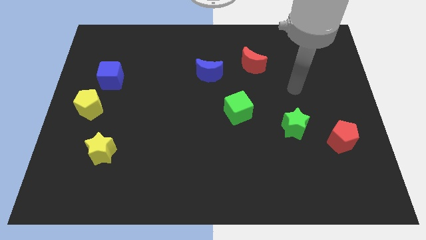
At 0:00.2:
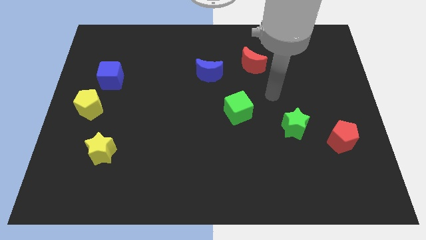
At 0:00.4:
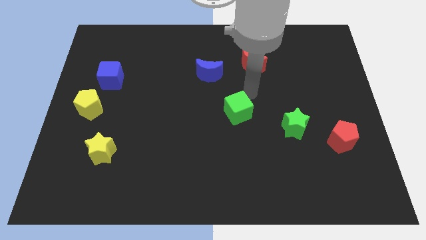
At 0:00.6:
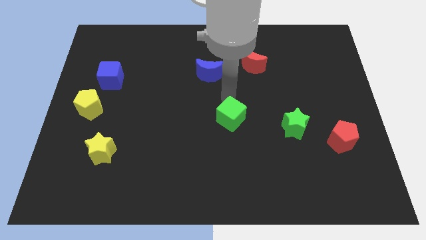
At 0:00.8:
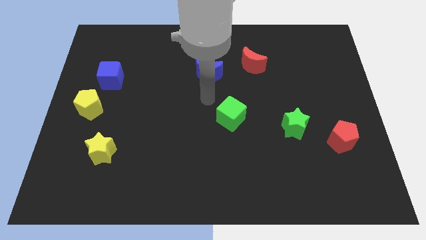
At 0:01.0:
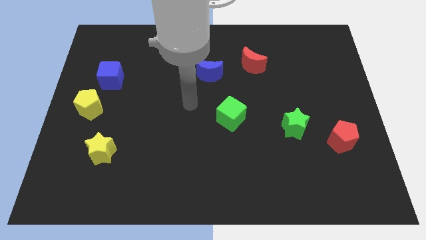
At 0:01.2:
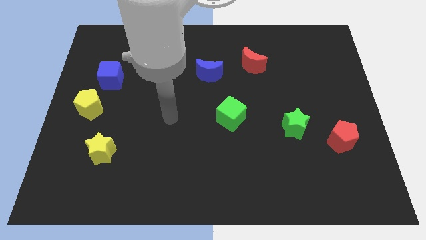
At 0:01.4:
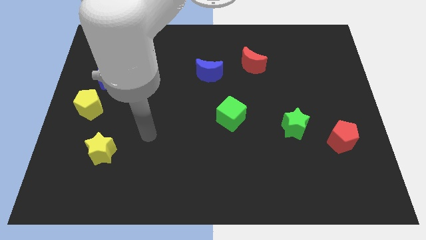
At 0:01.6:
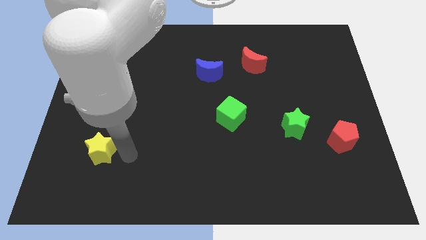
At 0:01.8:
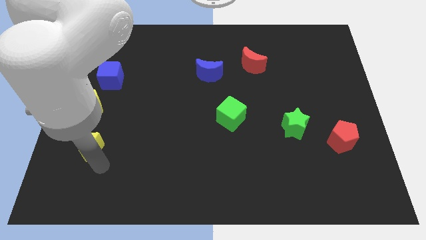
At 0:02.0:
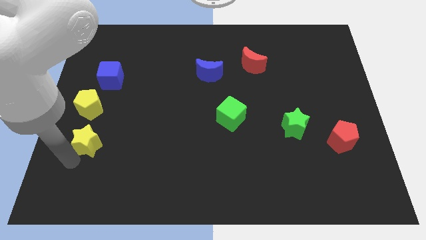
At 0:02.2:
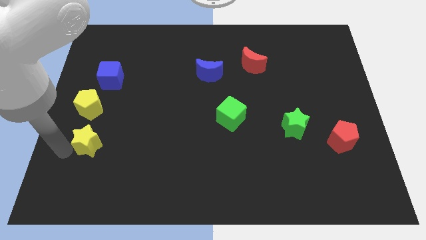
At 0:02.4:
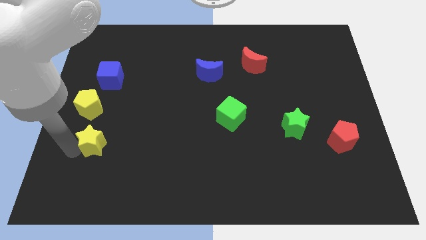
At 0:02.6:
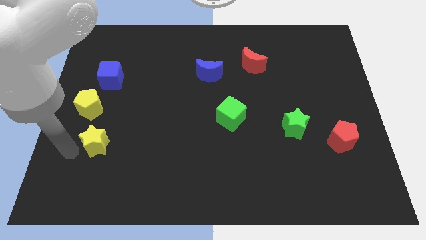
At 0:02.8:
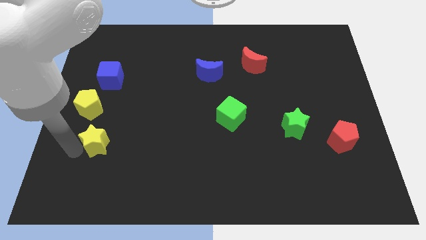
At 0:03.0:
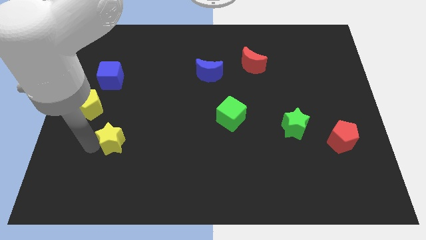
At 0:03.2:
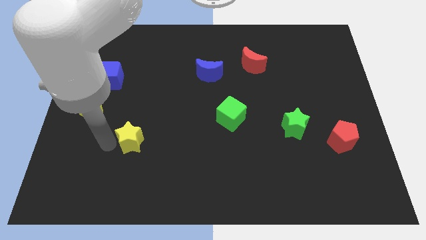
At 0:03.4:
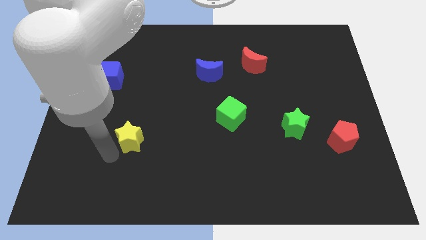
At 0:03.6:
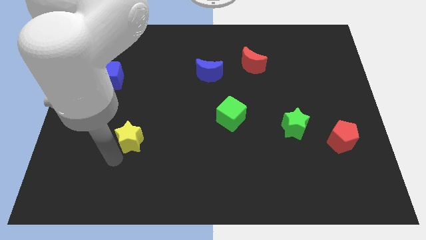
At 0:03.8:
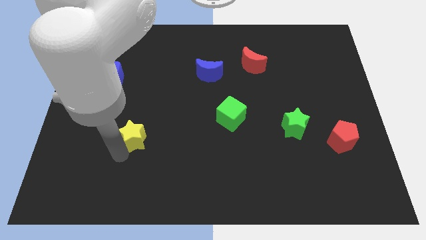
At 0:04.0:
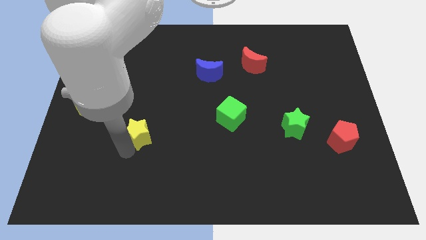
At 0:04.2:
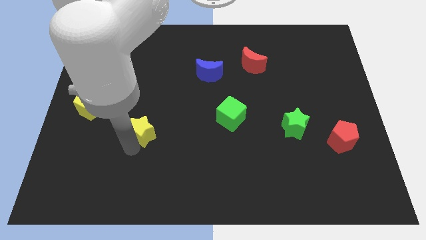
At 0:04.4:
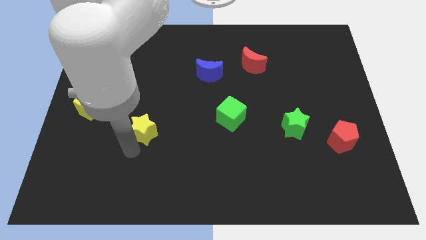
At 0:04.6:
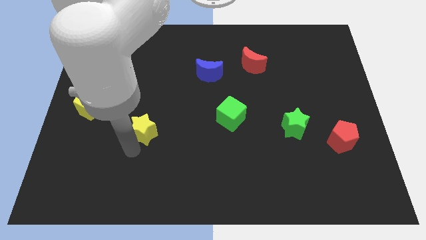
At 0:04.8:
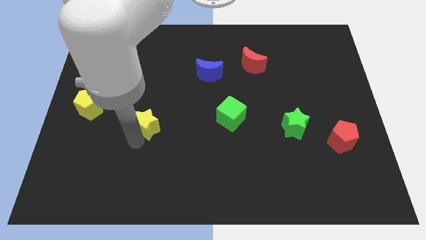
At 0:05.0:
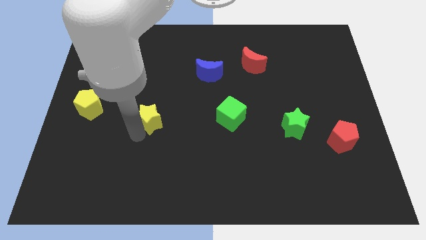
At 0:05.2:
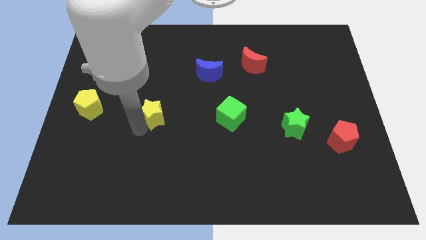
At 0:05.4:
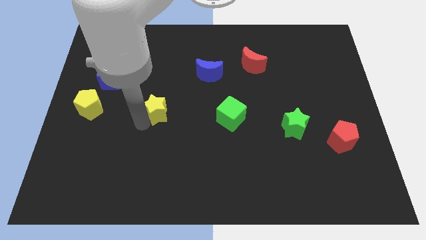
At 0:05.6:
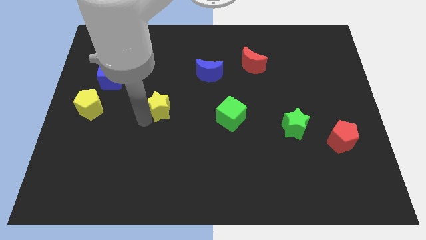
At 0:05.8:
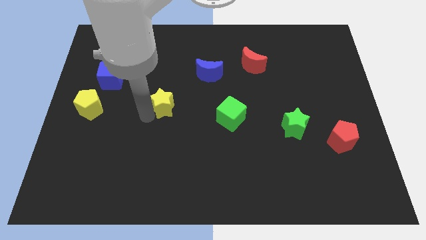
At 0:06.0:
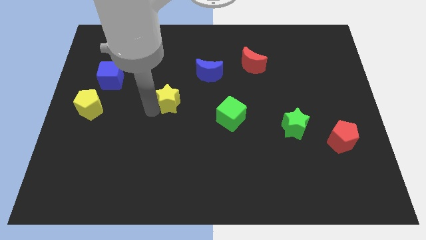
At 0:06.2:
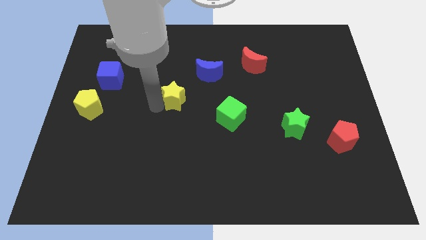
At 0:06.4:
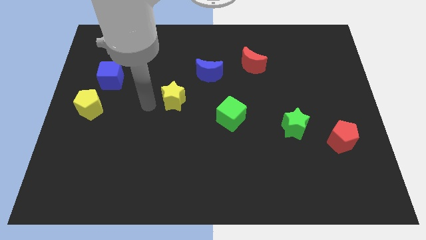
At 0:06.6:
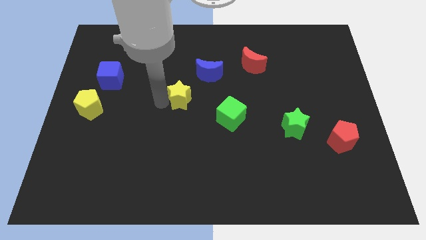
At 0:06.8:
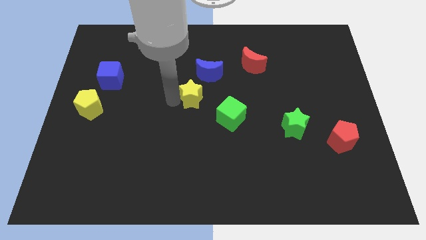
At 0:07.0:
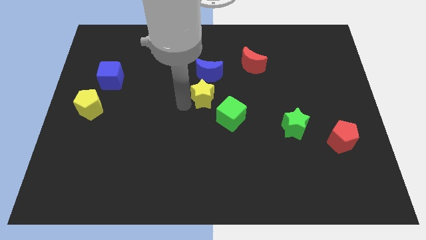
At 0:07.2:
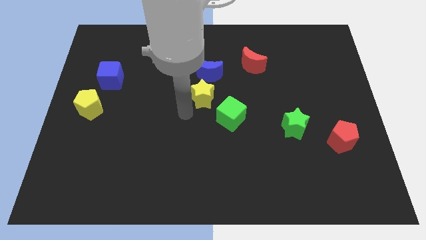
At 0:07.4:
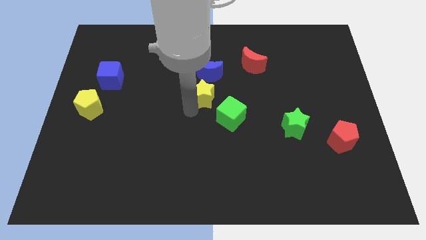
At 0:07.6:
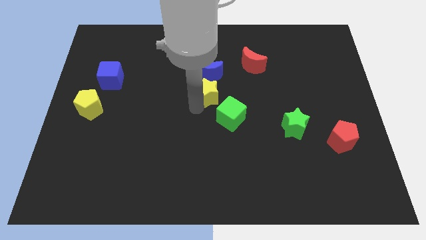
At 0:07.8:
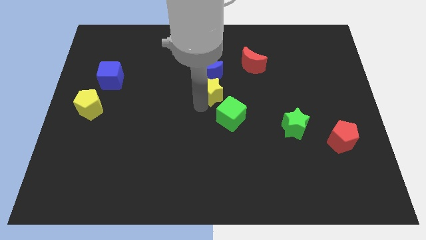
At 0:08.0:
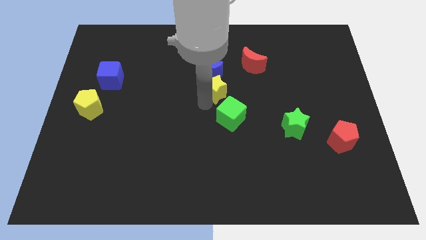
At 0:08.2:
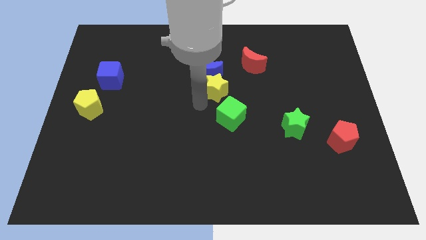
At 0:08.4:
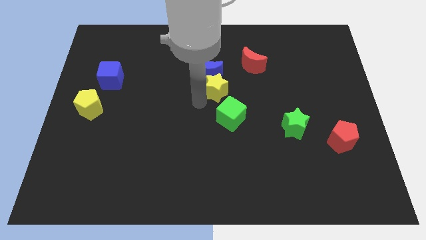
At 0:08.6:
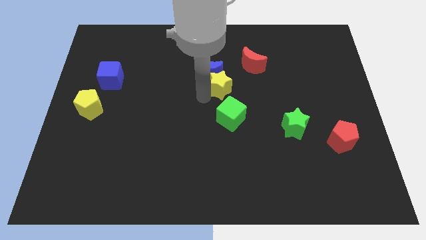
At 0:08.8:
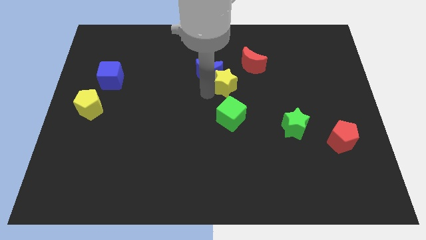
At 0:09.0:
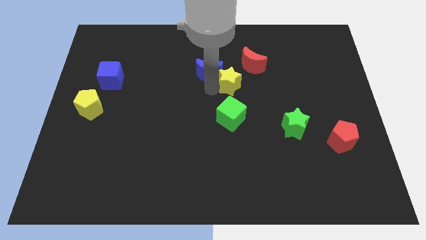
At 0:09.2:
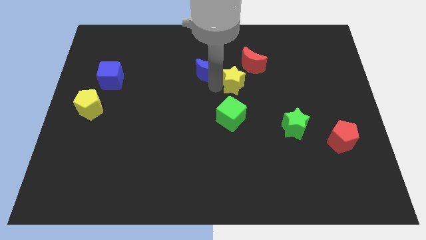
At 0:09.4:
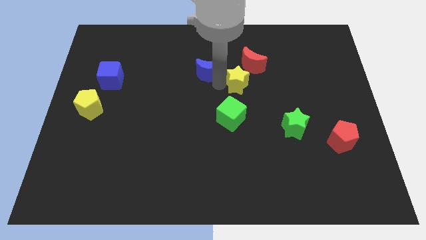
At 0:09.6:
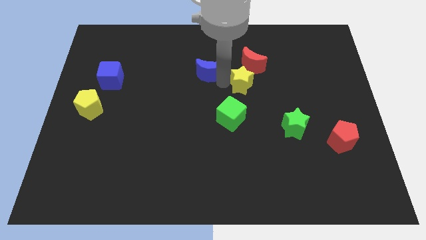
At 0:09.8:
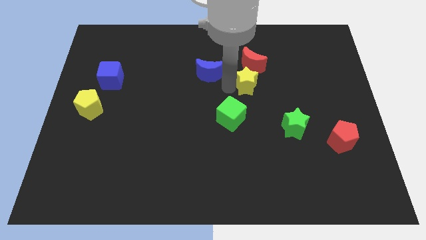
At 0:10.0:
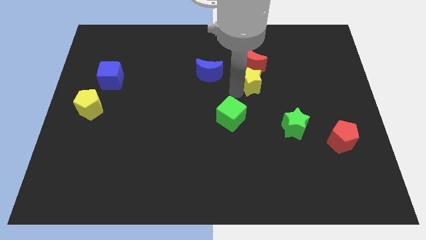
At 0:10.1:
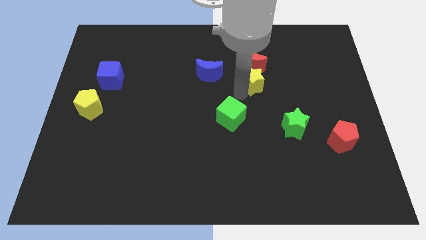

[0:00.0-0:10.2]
move the yellow star towards the red moon

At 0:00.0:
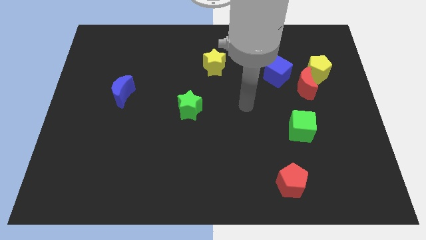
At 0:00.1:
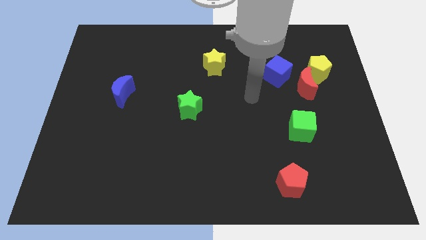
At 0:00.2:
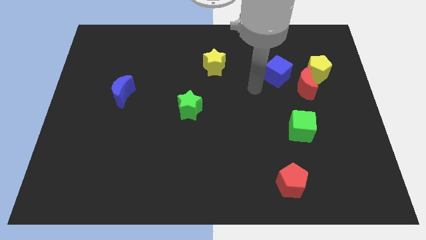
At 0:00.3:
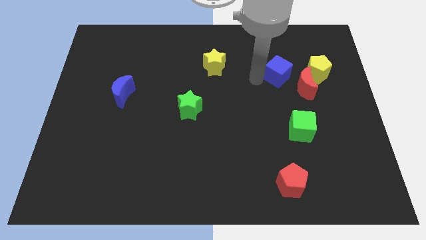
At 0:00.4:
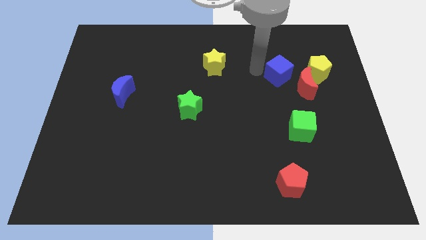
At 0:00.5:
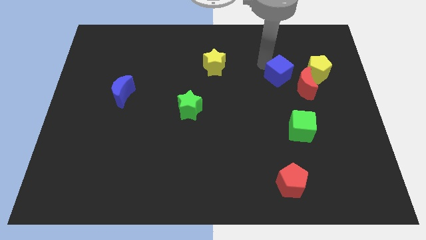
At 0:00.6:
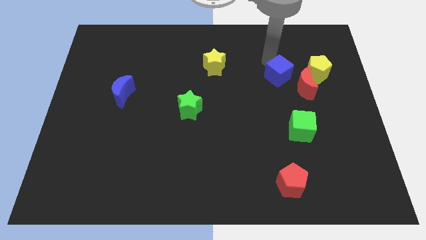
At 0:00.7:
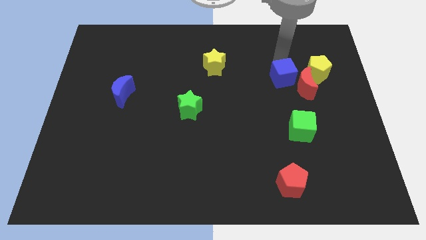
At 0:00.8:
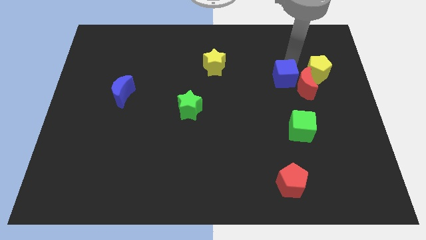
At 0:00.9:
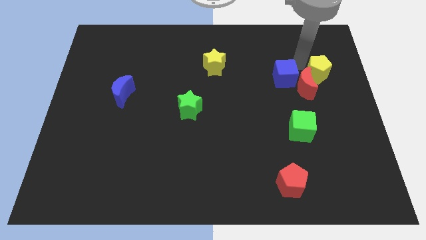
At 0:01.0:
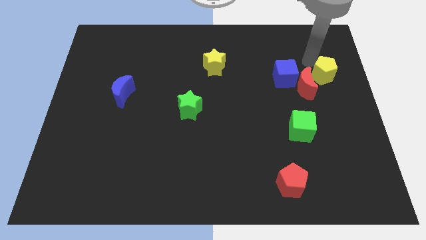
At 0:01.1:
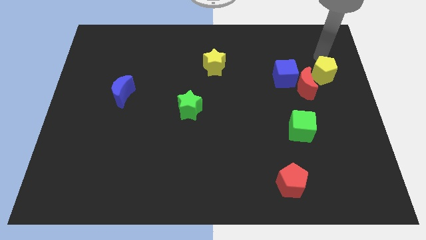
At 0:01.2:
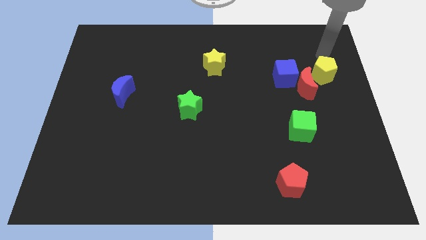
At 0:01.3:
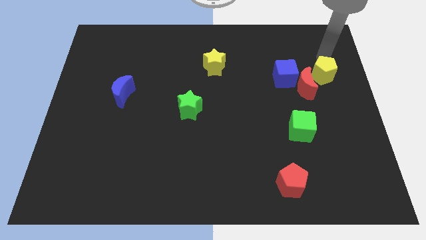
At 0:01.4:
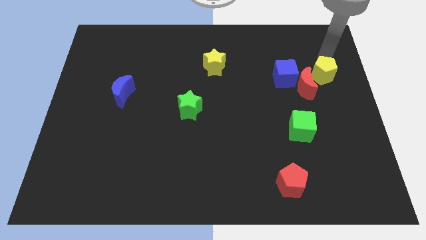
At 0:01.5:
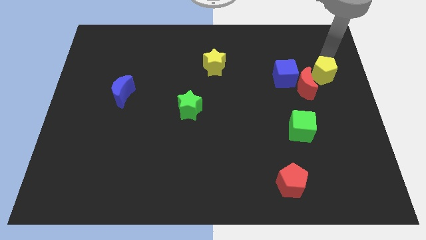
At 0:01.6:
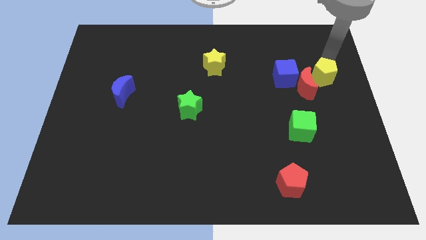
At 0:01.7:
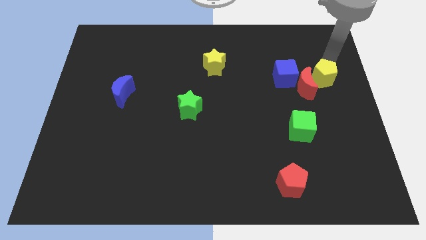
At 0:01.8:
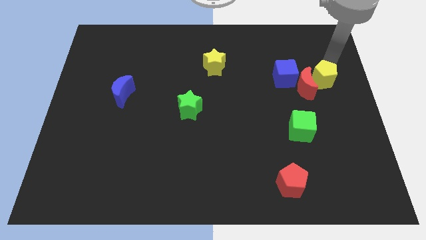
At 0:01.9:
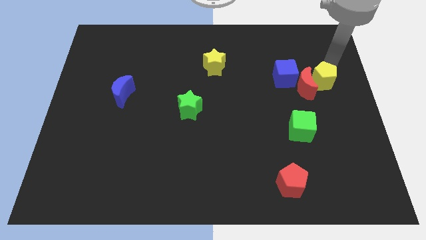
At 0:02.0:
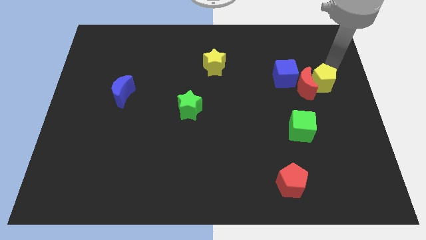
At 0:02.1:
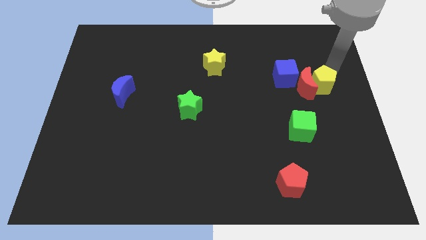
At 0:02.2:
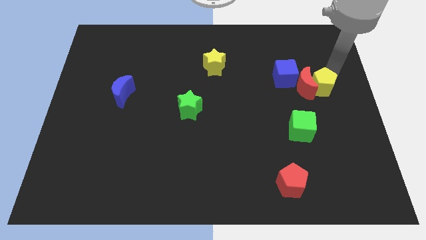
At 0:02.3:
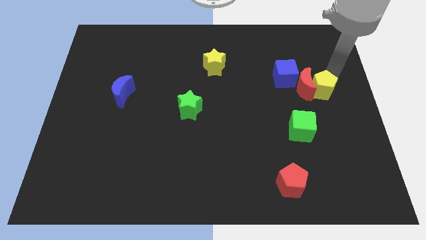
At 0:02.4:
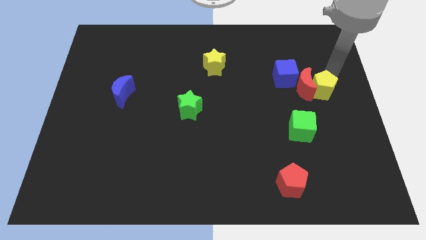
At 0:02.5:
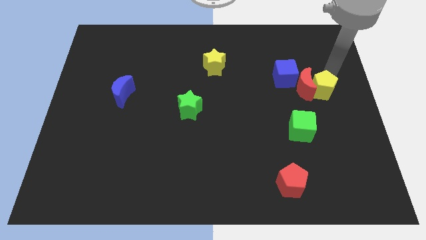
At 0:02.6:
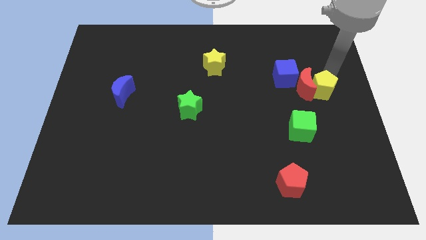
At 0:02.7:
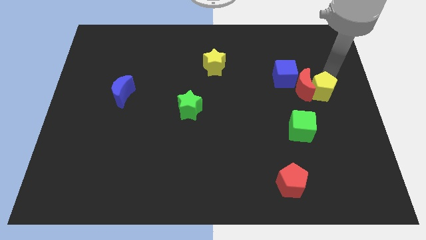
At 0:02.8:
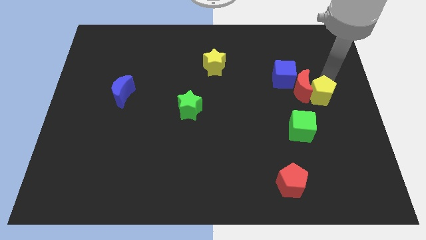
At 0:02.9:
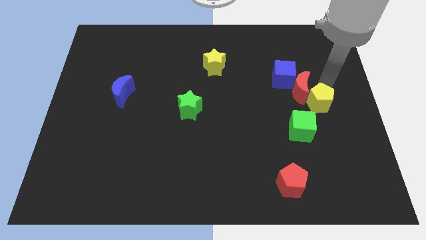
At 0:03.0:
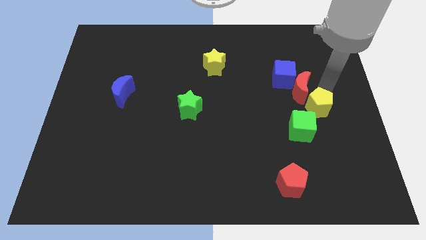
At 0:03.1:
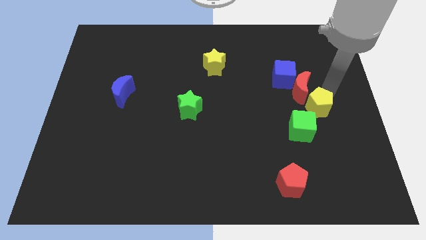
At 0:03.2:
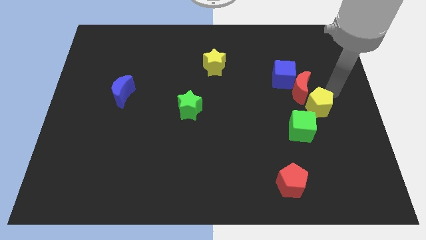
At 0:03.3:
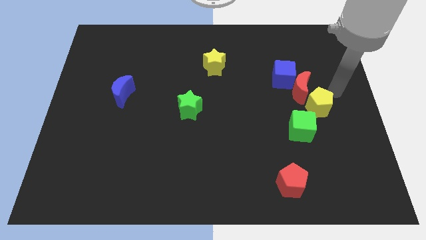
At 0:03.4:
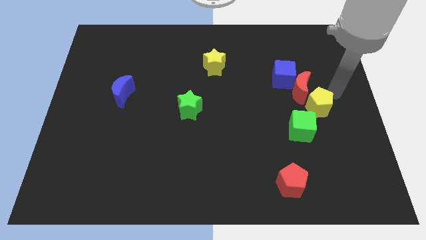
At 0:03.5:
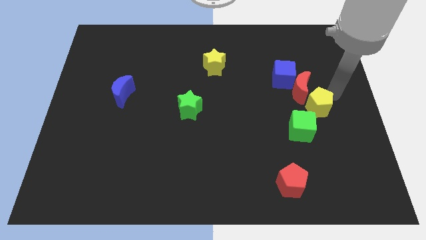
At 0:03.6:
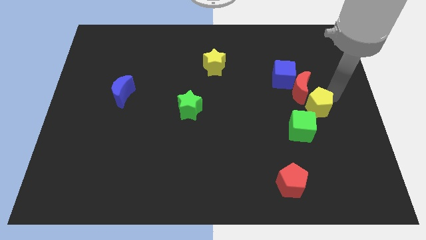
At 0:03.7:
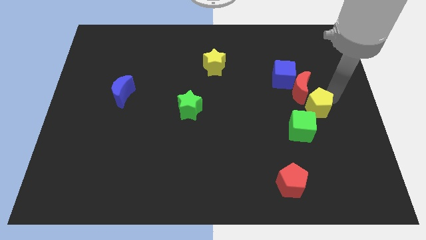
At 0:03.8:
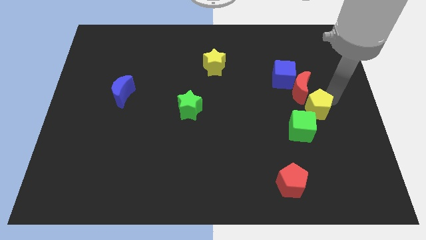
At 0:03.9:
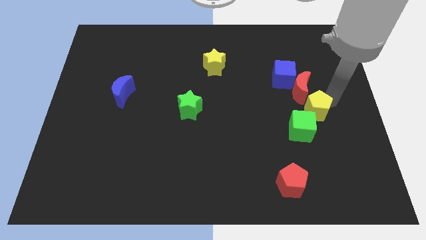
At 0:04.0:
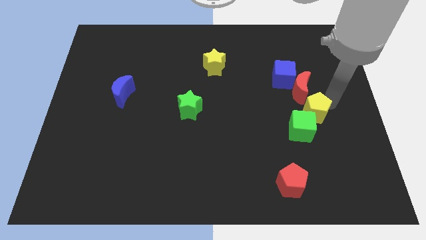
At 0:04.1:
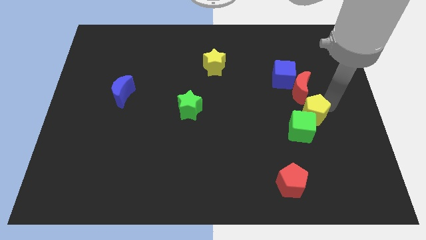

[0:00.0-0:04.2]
push the yellow pentagon next to the green cube
